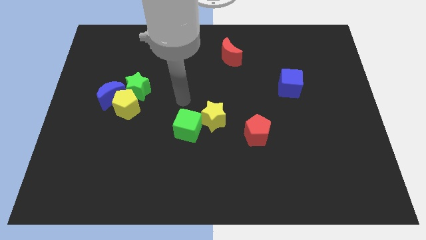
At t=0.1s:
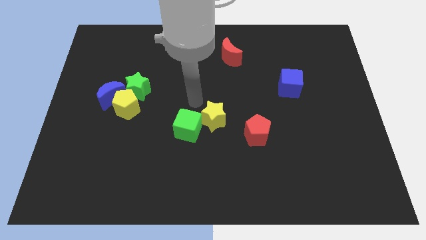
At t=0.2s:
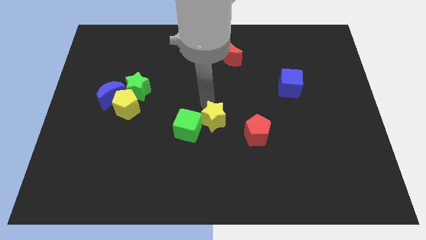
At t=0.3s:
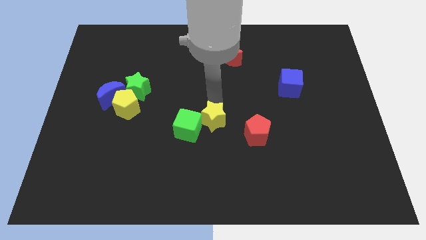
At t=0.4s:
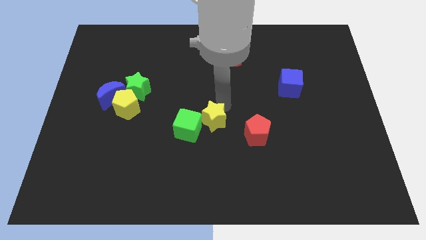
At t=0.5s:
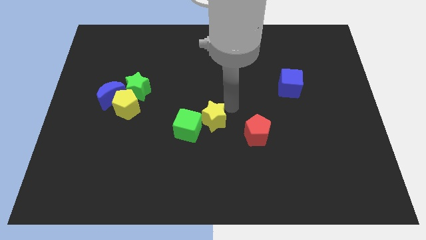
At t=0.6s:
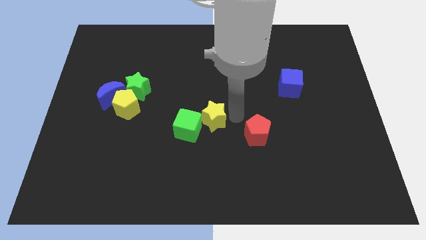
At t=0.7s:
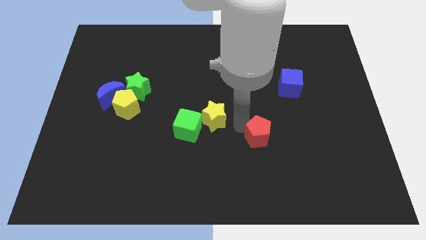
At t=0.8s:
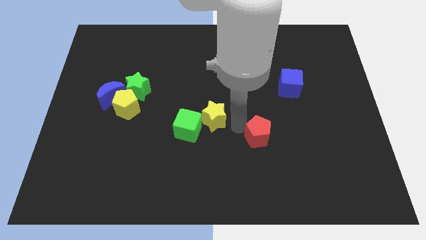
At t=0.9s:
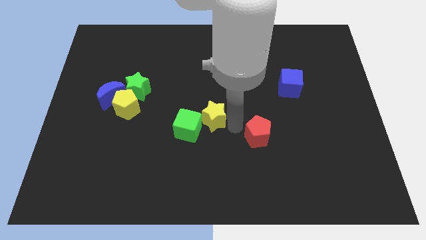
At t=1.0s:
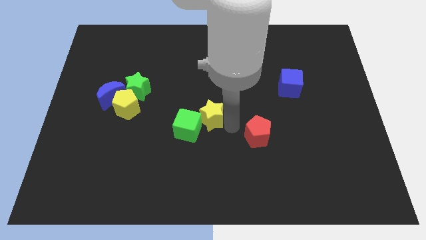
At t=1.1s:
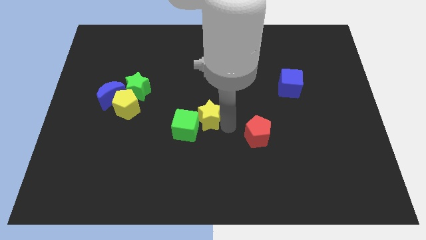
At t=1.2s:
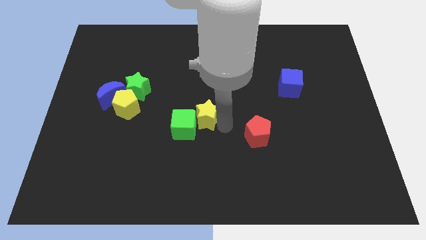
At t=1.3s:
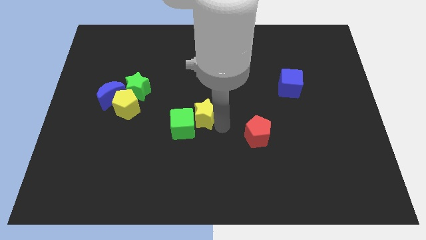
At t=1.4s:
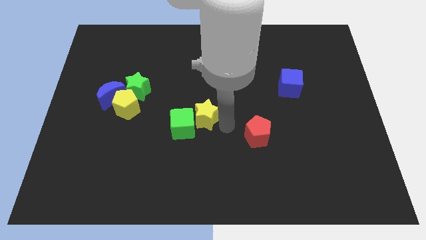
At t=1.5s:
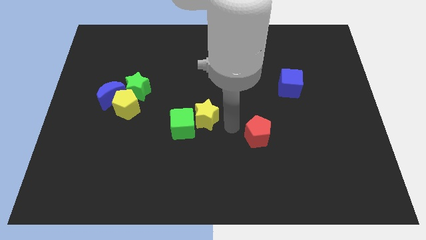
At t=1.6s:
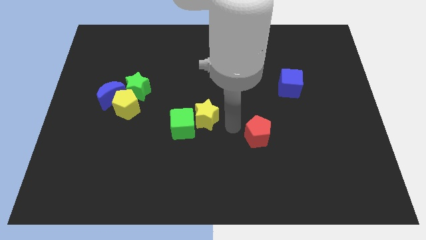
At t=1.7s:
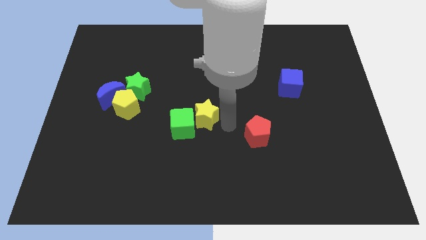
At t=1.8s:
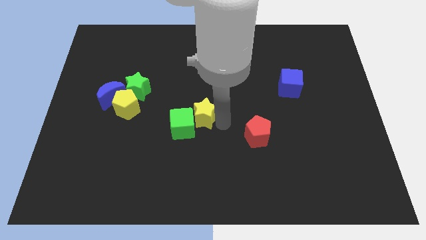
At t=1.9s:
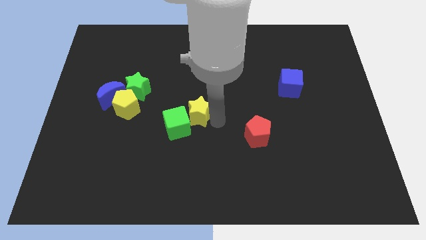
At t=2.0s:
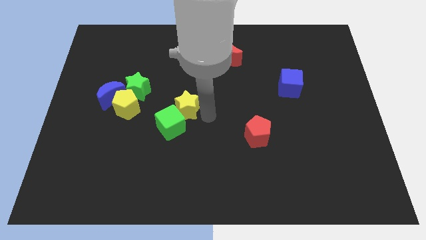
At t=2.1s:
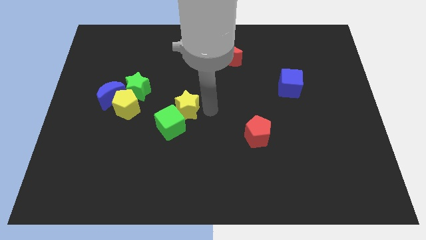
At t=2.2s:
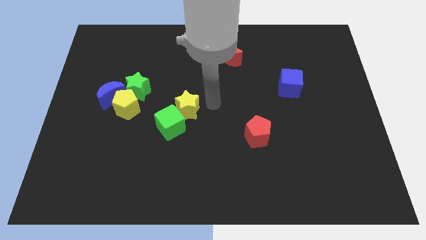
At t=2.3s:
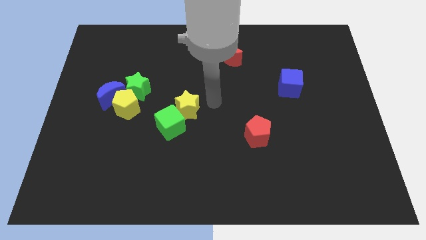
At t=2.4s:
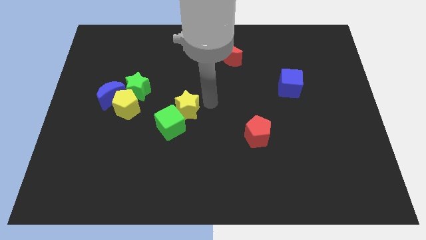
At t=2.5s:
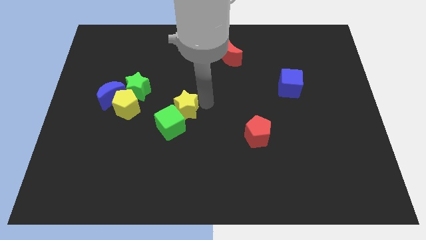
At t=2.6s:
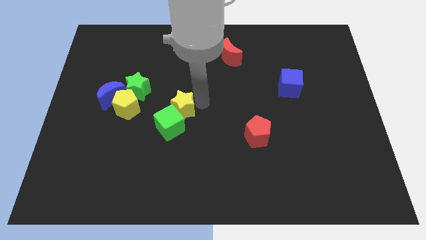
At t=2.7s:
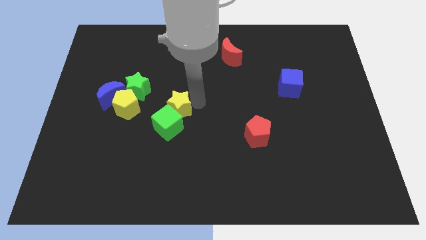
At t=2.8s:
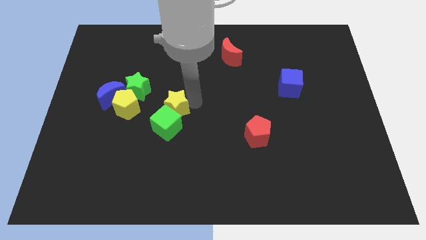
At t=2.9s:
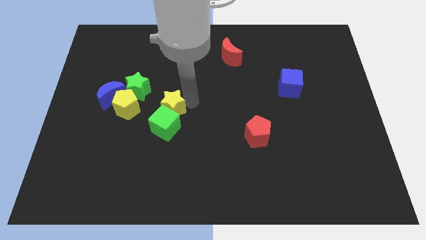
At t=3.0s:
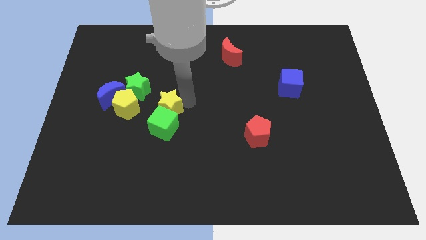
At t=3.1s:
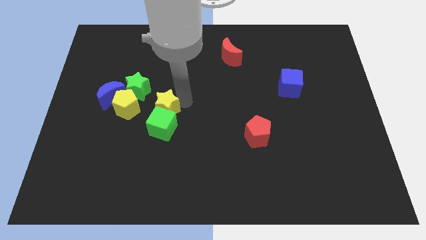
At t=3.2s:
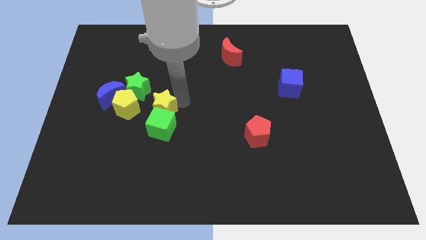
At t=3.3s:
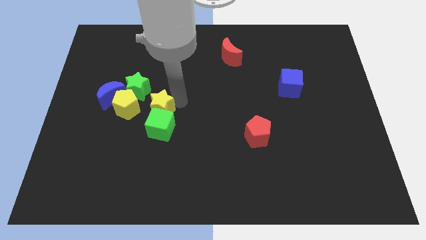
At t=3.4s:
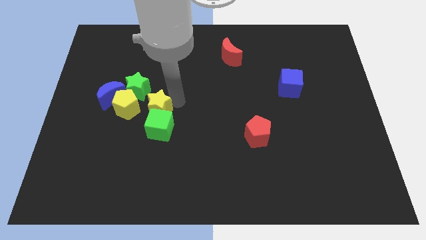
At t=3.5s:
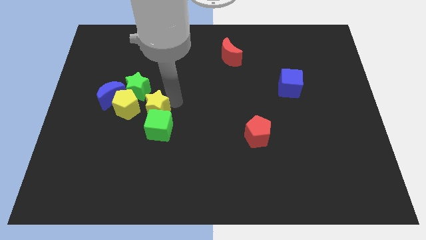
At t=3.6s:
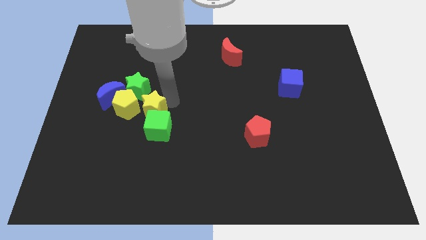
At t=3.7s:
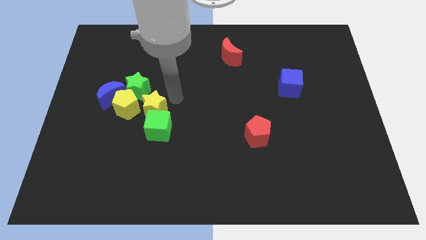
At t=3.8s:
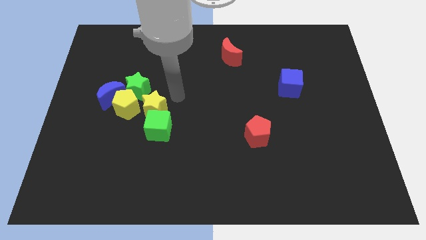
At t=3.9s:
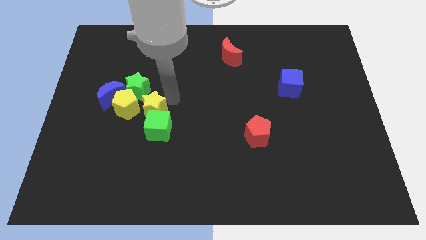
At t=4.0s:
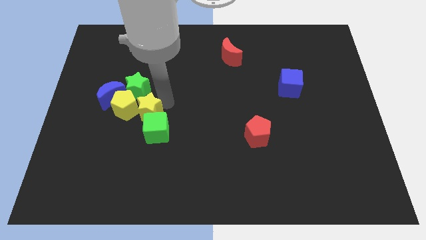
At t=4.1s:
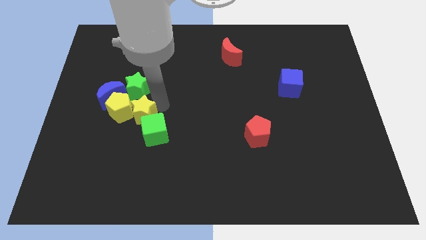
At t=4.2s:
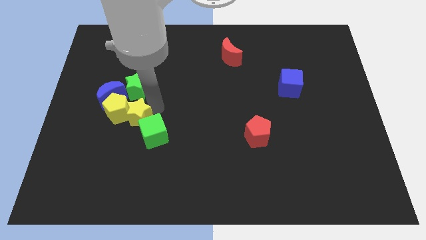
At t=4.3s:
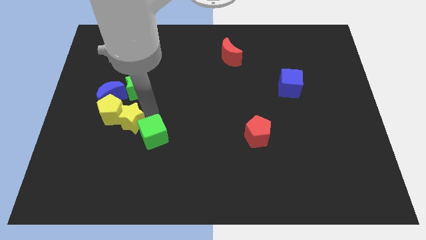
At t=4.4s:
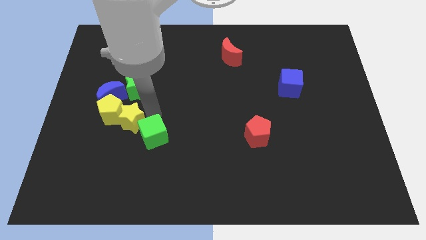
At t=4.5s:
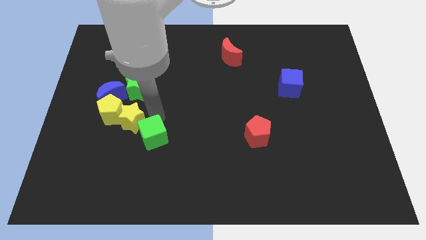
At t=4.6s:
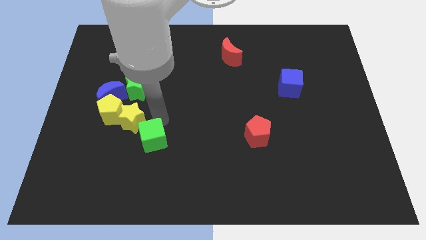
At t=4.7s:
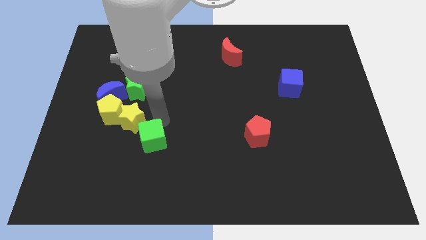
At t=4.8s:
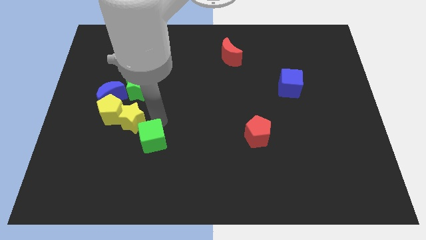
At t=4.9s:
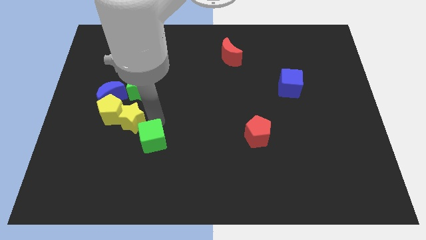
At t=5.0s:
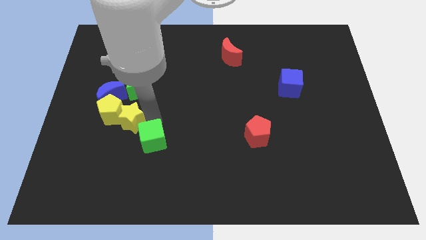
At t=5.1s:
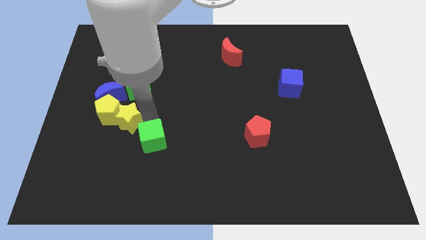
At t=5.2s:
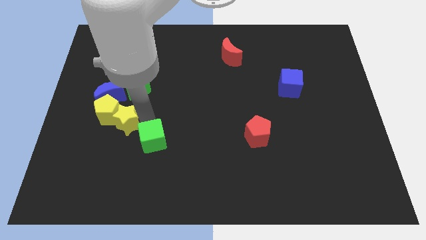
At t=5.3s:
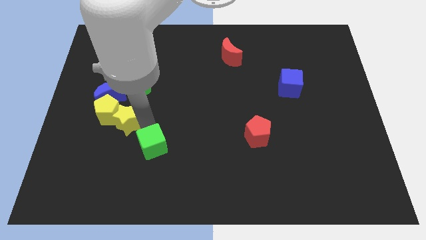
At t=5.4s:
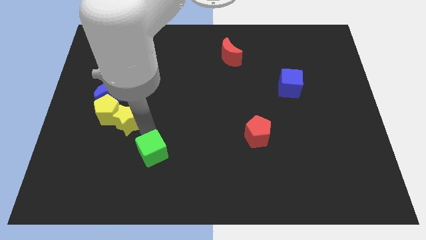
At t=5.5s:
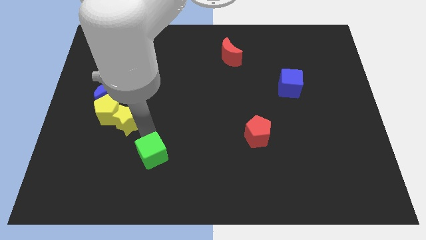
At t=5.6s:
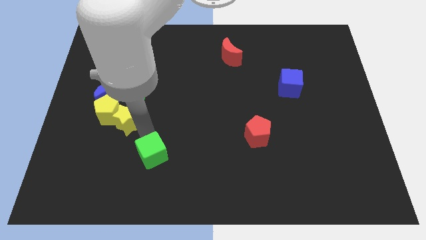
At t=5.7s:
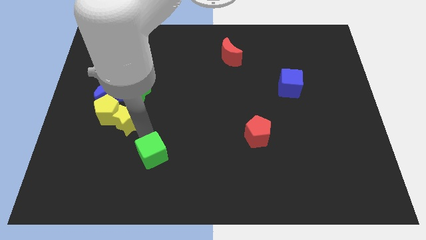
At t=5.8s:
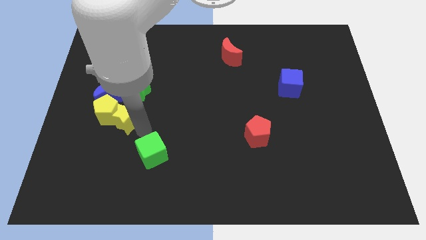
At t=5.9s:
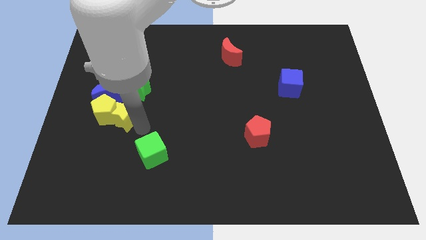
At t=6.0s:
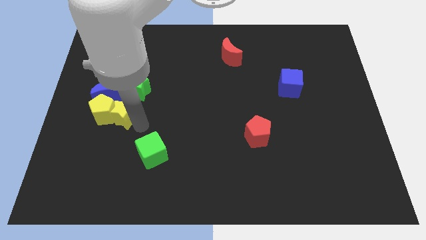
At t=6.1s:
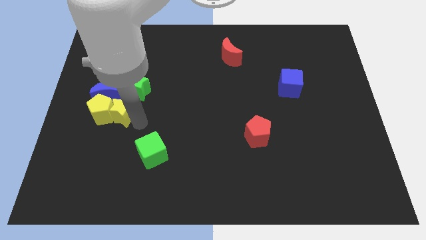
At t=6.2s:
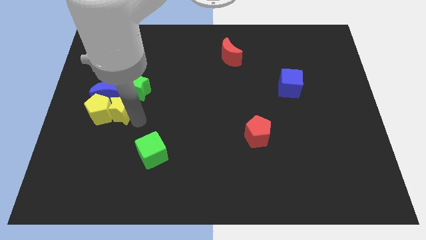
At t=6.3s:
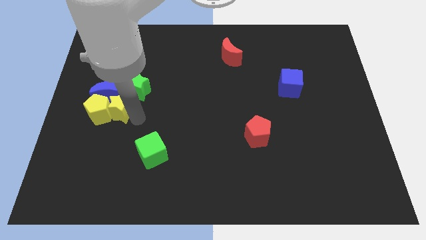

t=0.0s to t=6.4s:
move the yellow star towards the blue moon
